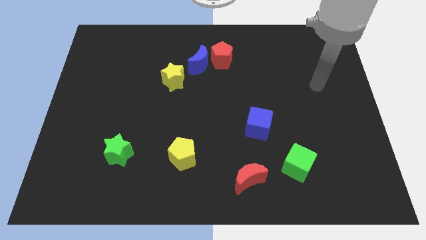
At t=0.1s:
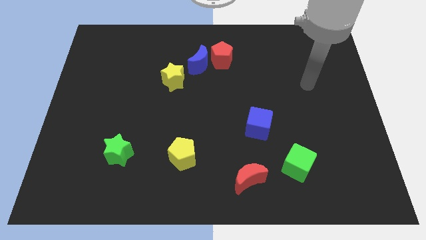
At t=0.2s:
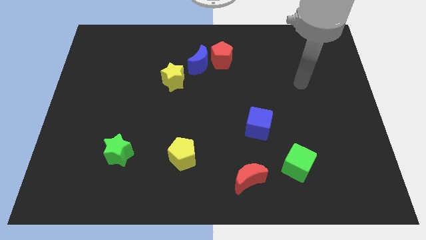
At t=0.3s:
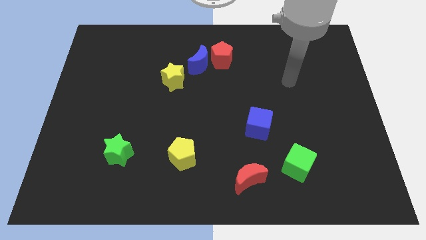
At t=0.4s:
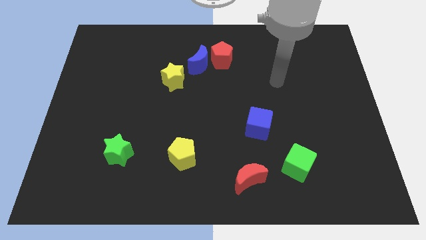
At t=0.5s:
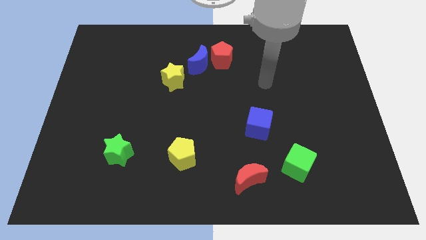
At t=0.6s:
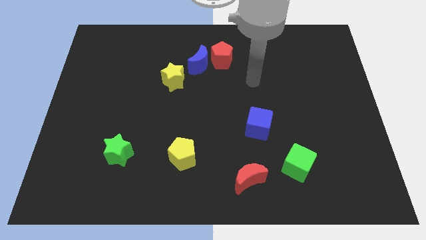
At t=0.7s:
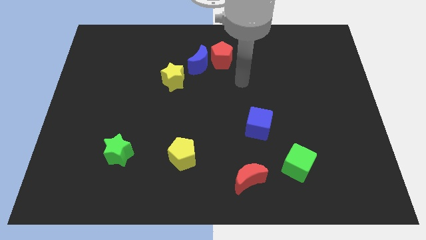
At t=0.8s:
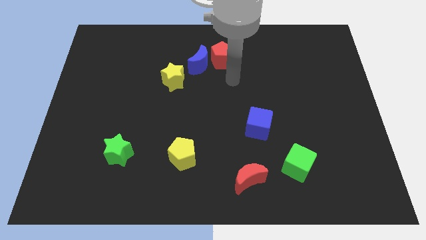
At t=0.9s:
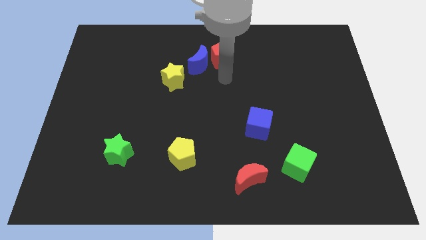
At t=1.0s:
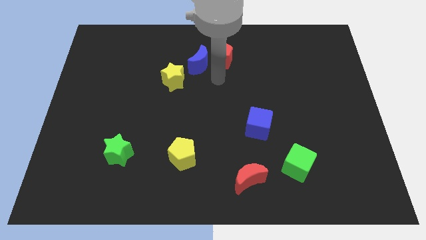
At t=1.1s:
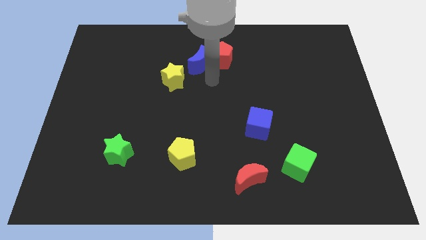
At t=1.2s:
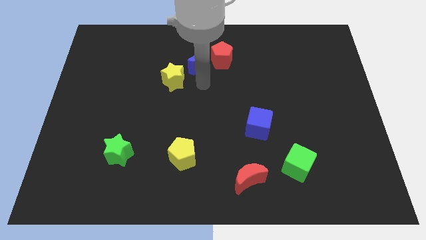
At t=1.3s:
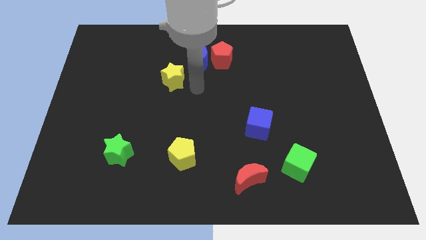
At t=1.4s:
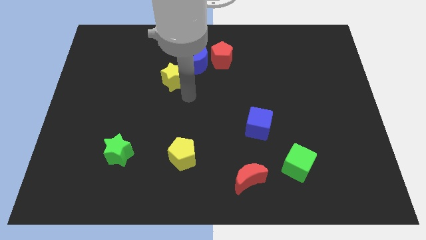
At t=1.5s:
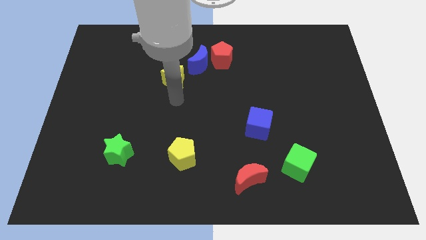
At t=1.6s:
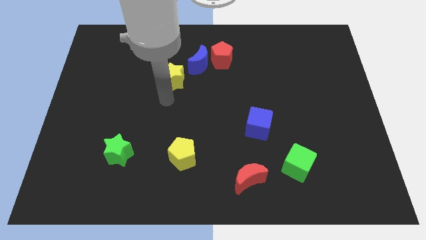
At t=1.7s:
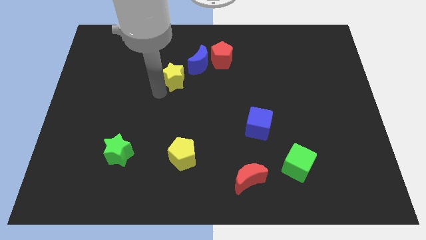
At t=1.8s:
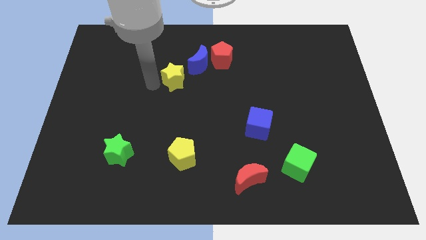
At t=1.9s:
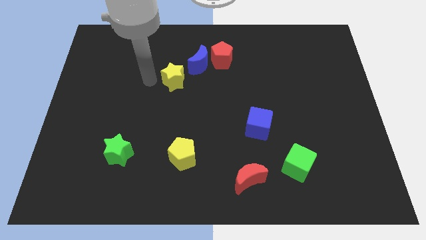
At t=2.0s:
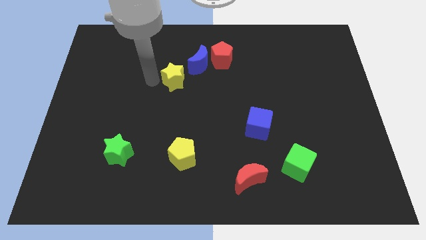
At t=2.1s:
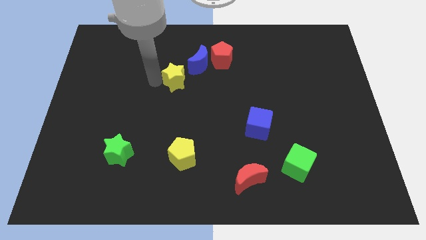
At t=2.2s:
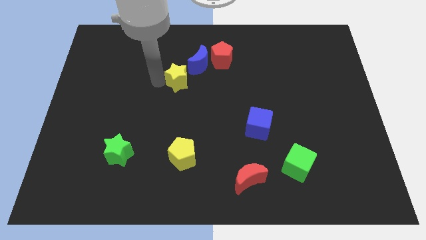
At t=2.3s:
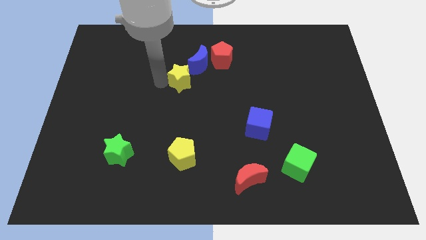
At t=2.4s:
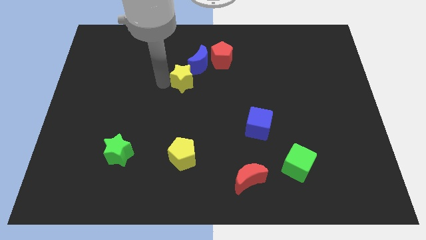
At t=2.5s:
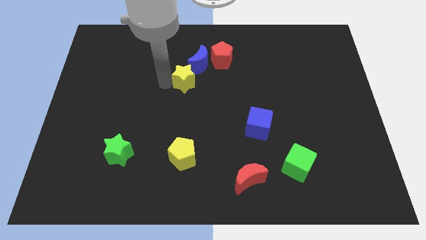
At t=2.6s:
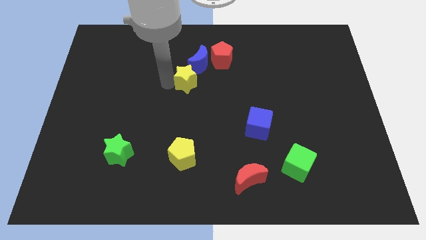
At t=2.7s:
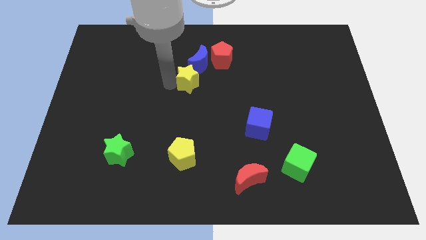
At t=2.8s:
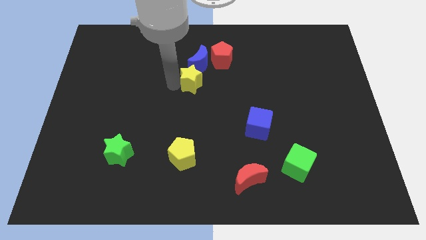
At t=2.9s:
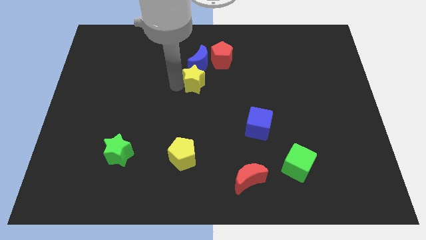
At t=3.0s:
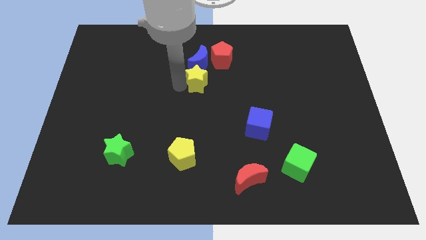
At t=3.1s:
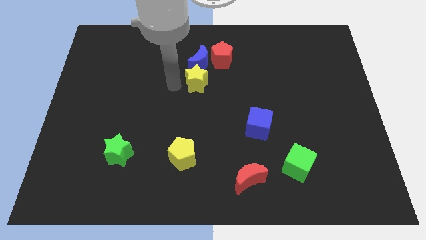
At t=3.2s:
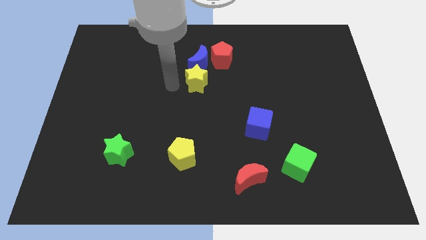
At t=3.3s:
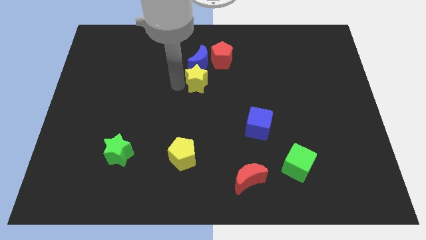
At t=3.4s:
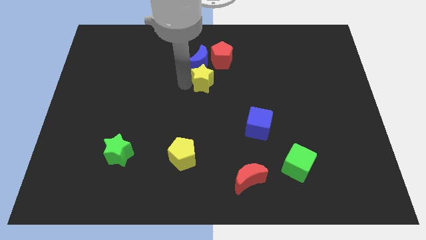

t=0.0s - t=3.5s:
push the yellow star right a little

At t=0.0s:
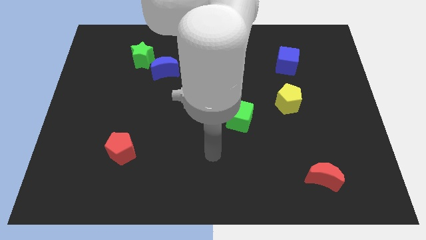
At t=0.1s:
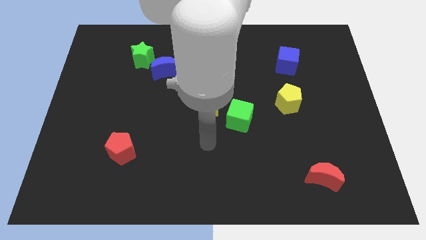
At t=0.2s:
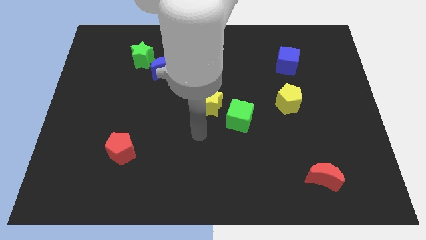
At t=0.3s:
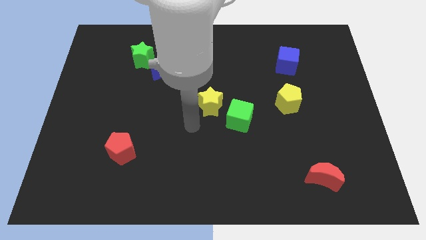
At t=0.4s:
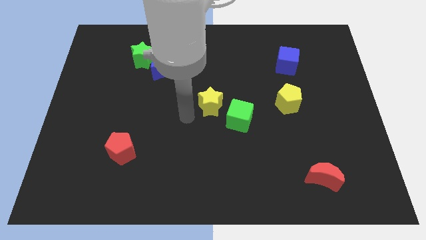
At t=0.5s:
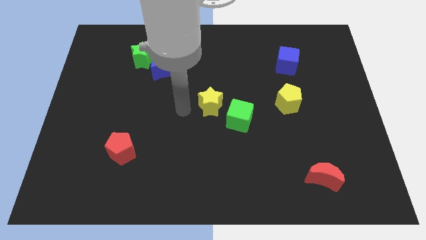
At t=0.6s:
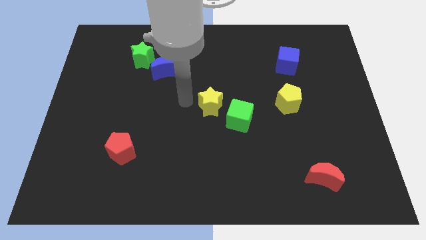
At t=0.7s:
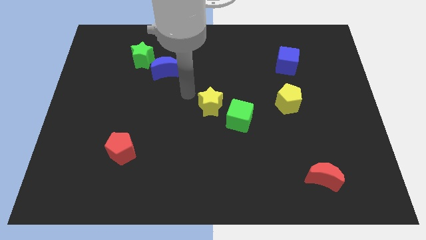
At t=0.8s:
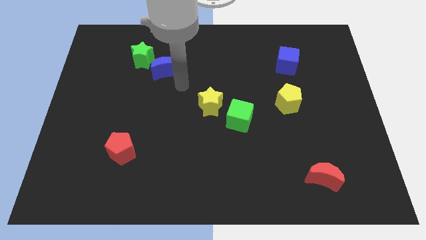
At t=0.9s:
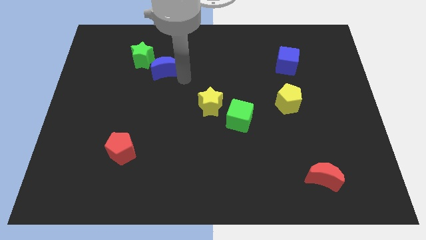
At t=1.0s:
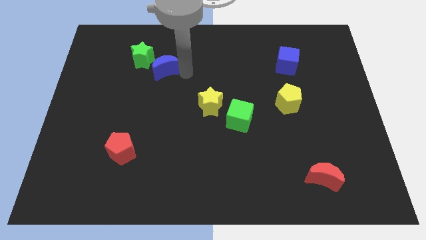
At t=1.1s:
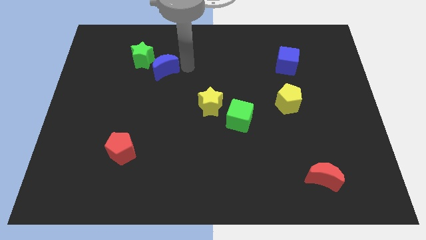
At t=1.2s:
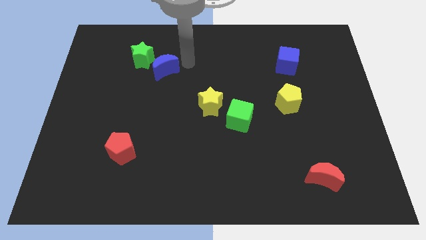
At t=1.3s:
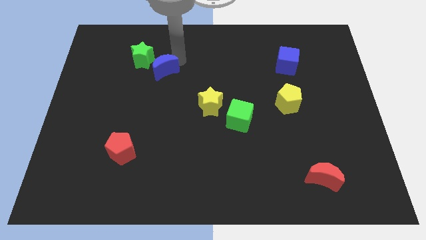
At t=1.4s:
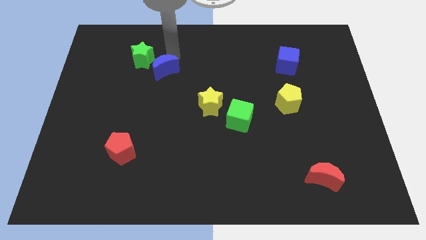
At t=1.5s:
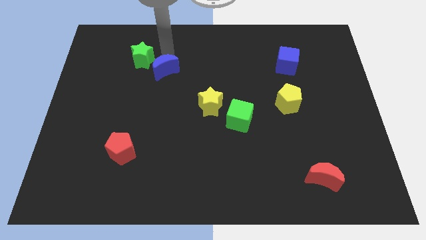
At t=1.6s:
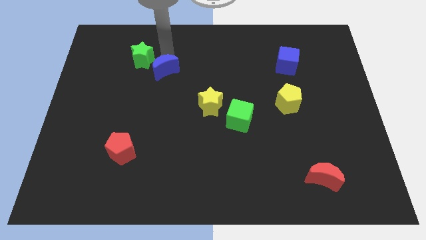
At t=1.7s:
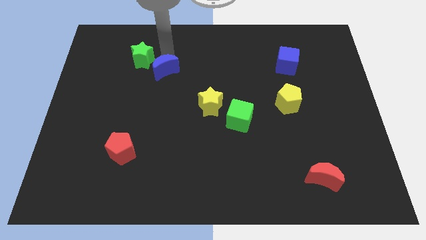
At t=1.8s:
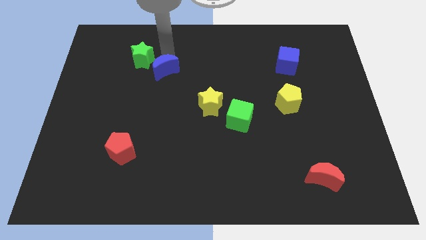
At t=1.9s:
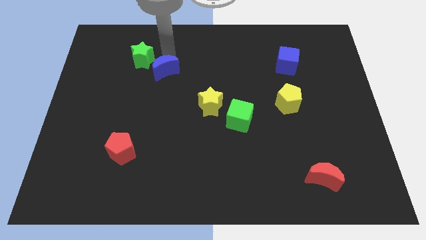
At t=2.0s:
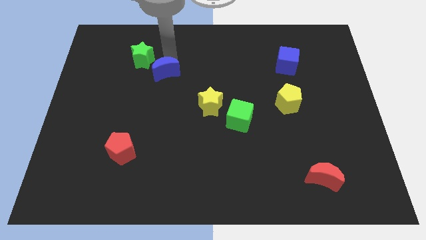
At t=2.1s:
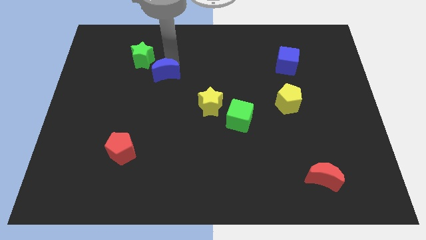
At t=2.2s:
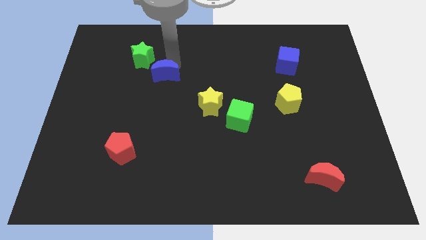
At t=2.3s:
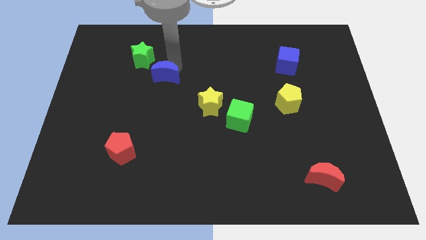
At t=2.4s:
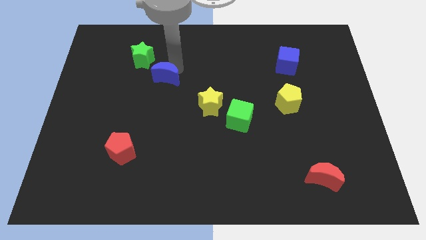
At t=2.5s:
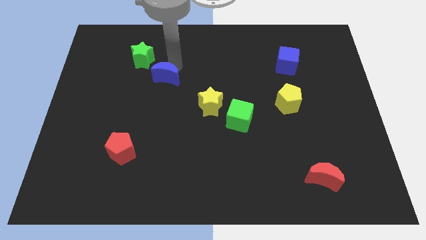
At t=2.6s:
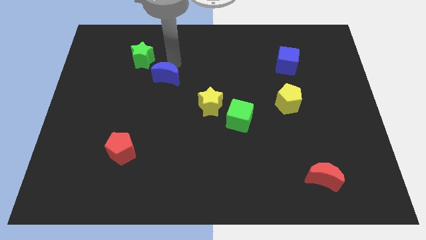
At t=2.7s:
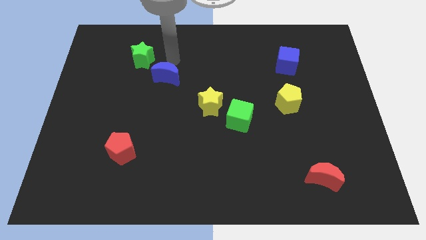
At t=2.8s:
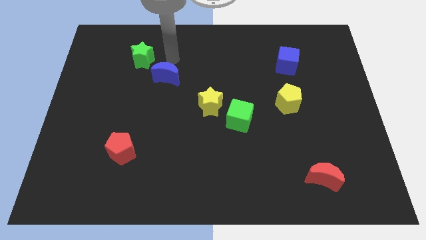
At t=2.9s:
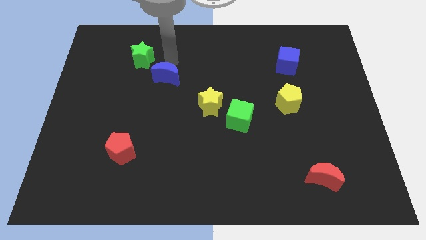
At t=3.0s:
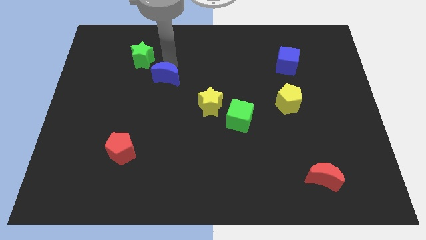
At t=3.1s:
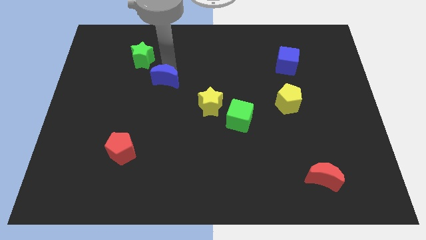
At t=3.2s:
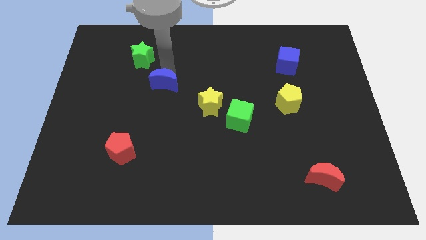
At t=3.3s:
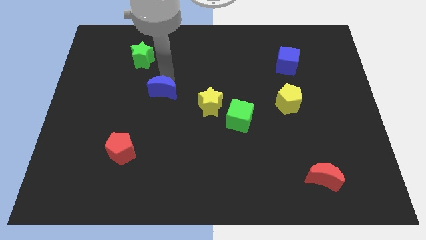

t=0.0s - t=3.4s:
slide the blue moon down a little

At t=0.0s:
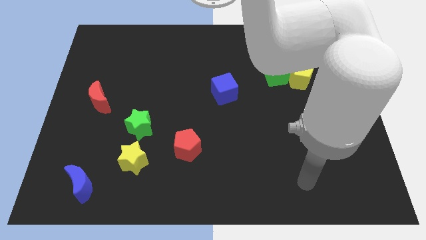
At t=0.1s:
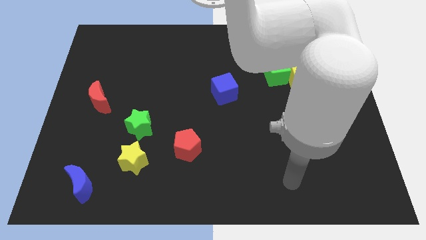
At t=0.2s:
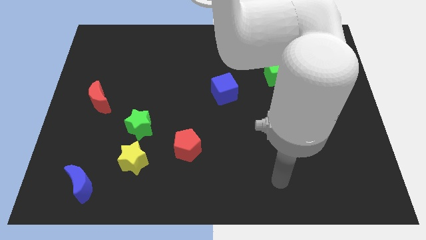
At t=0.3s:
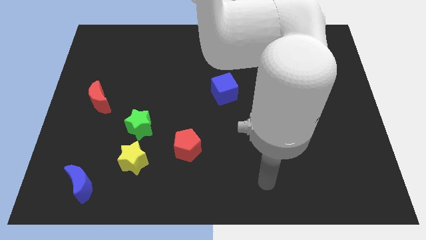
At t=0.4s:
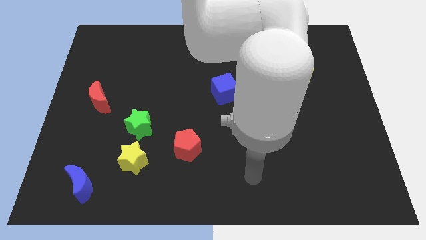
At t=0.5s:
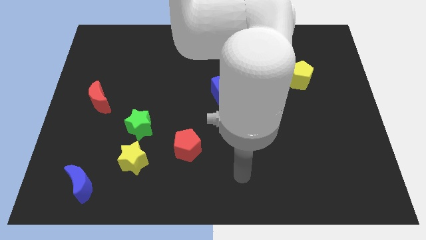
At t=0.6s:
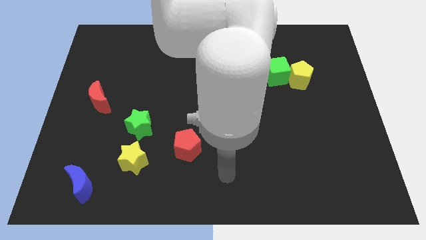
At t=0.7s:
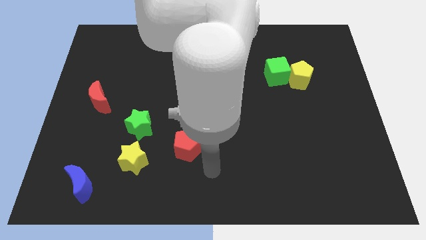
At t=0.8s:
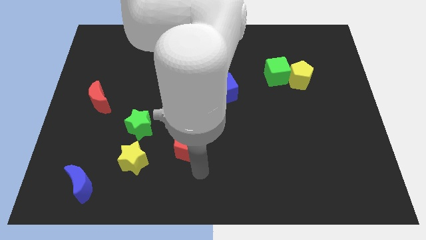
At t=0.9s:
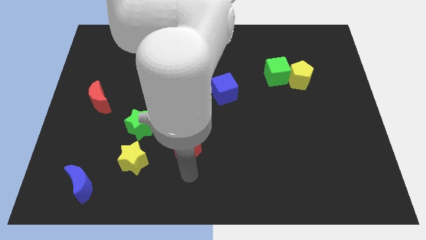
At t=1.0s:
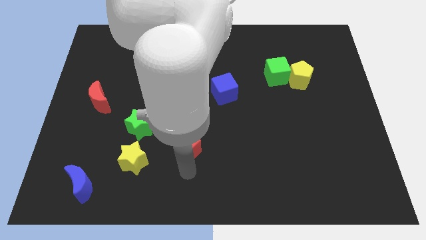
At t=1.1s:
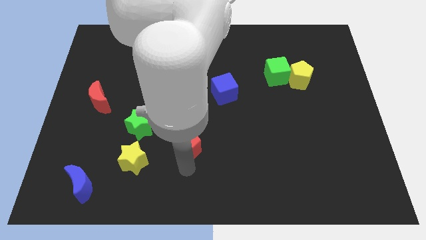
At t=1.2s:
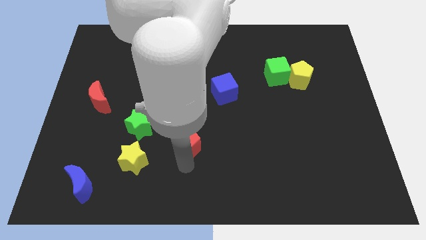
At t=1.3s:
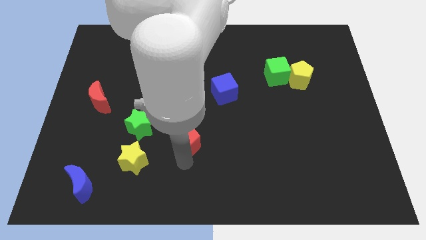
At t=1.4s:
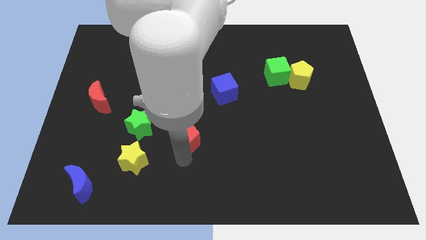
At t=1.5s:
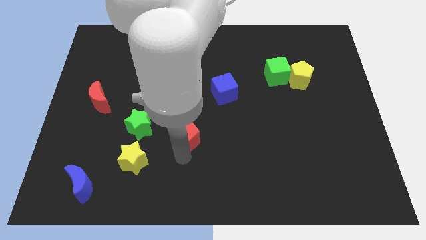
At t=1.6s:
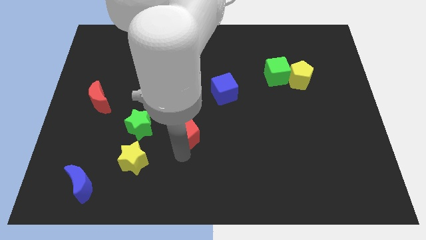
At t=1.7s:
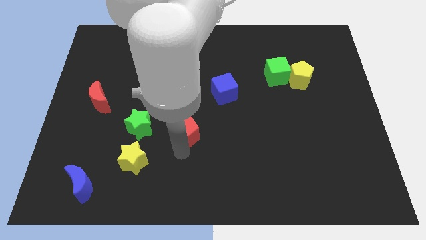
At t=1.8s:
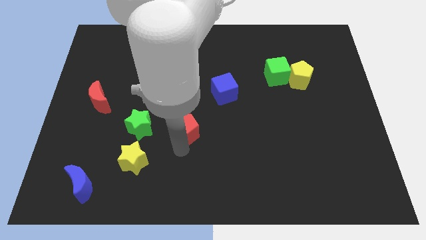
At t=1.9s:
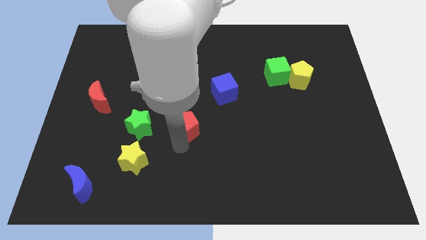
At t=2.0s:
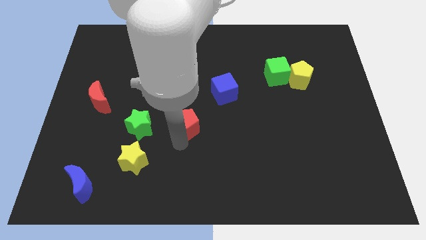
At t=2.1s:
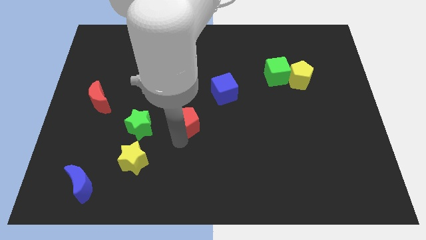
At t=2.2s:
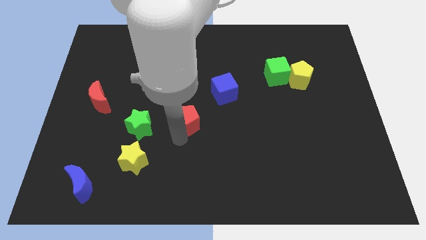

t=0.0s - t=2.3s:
slightly slide the red pentagon upwards
